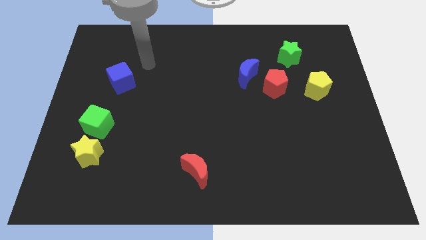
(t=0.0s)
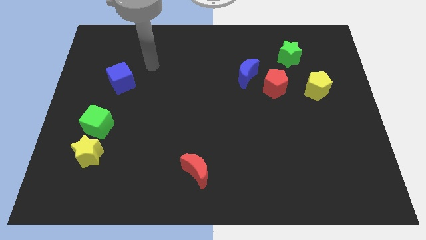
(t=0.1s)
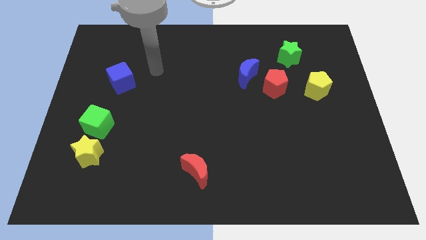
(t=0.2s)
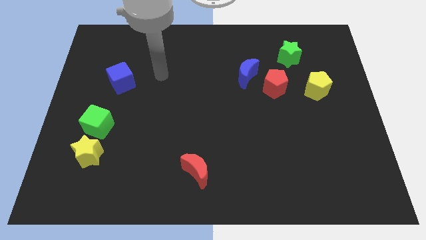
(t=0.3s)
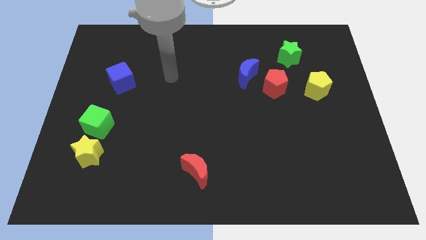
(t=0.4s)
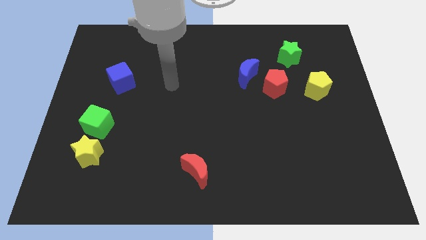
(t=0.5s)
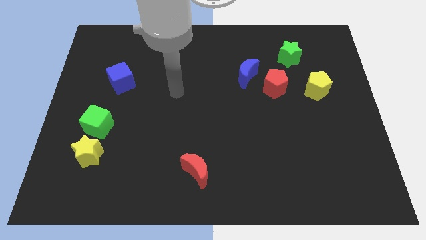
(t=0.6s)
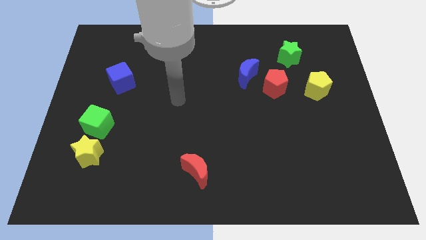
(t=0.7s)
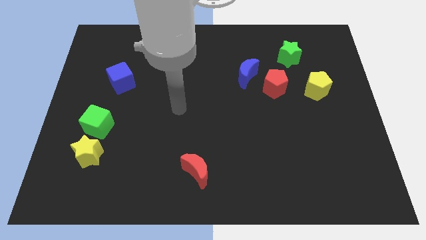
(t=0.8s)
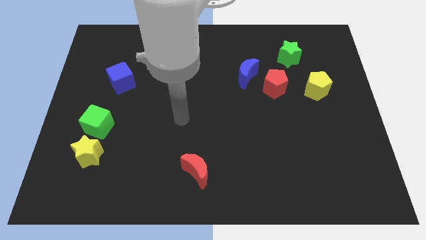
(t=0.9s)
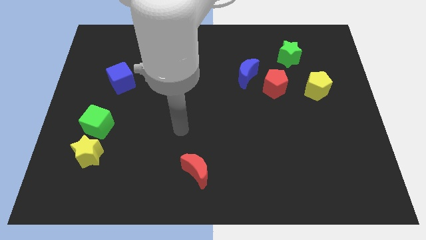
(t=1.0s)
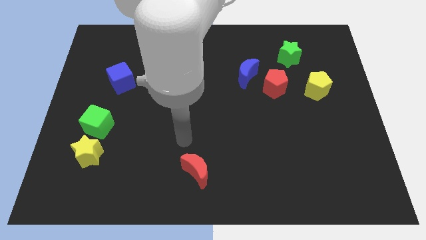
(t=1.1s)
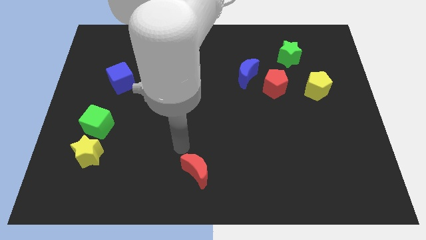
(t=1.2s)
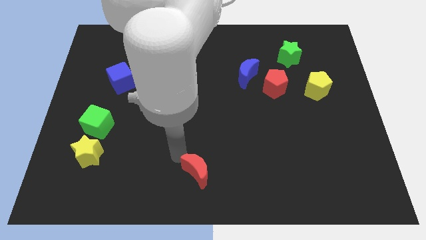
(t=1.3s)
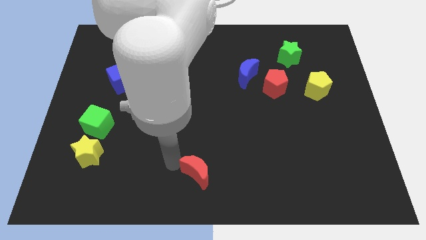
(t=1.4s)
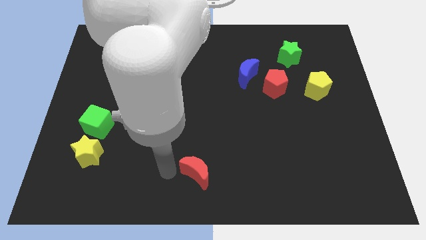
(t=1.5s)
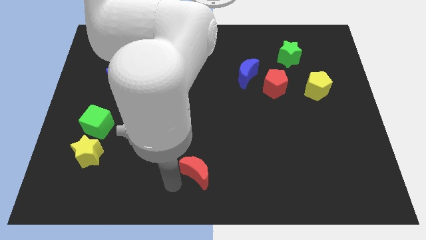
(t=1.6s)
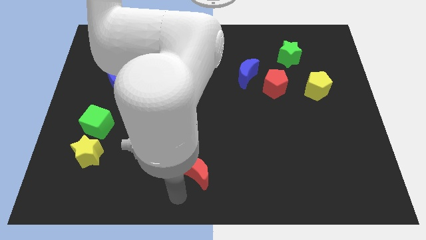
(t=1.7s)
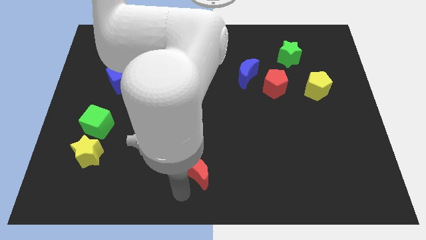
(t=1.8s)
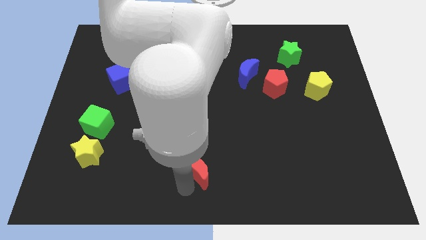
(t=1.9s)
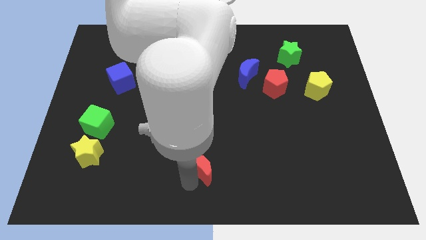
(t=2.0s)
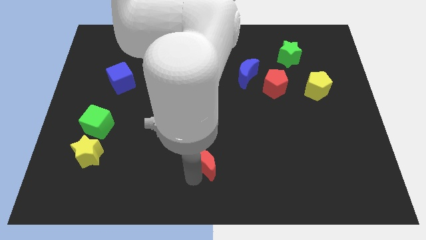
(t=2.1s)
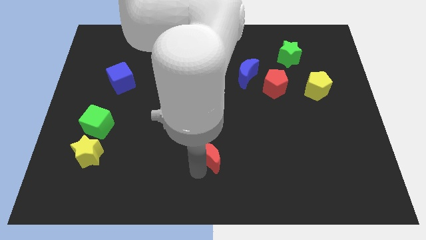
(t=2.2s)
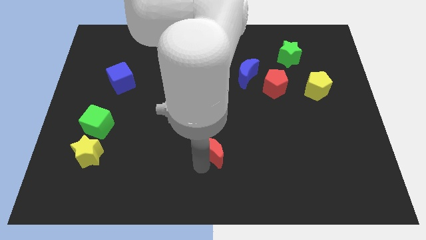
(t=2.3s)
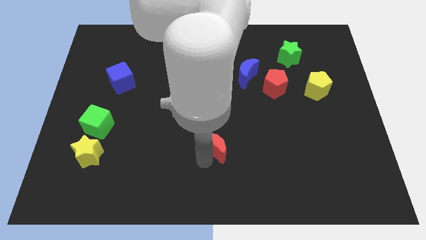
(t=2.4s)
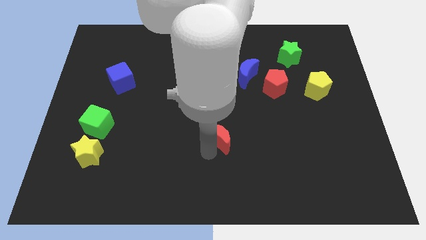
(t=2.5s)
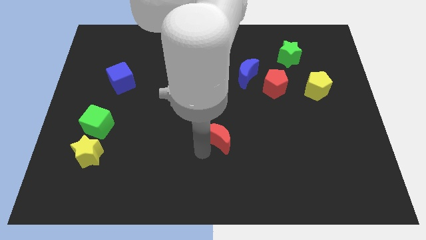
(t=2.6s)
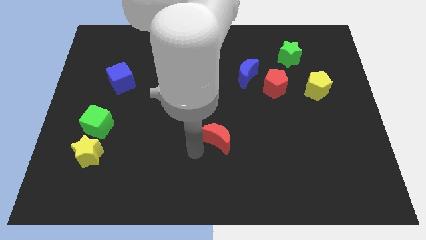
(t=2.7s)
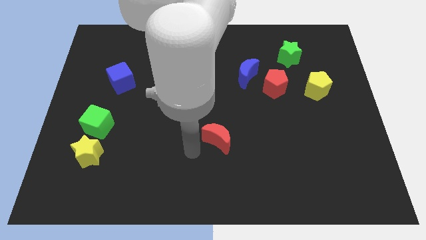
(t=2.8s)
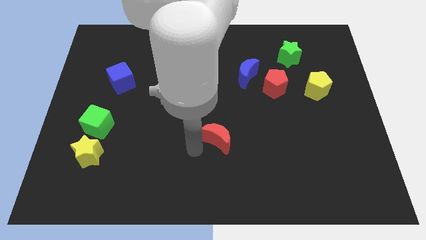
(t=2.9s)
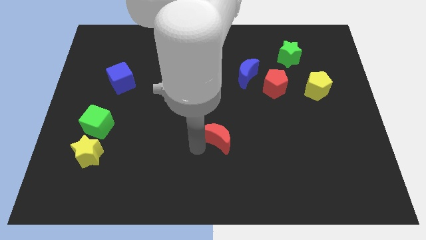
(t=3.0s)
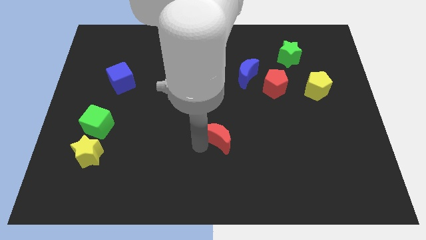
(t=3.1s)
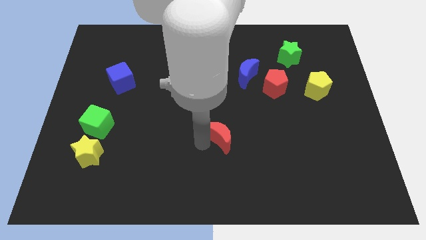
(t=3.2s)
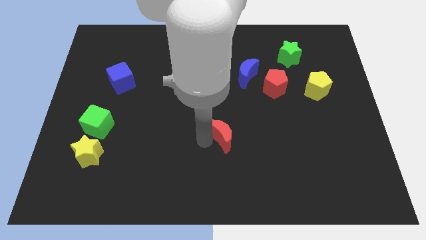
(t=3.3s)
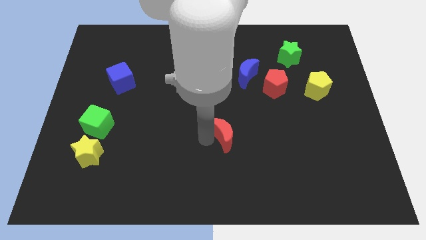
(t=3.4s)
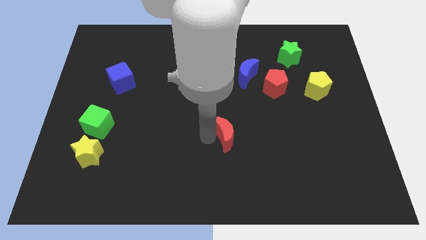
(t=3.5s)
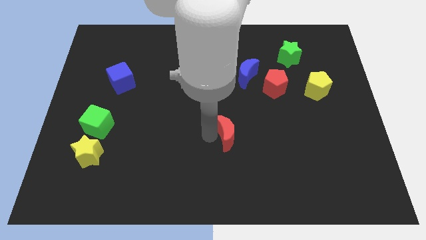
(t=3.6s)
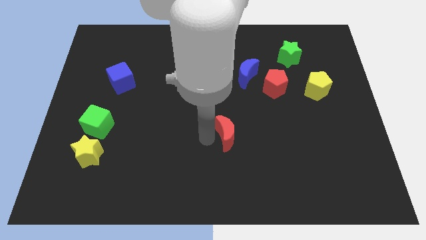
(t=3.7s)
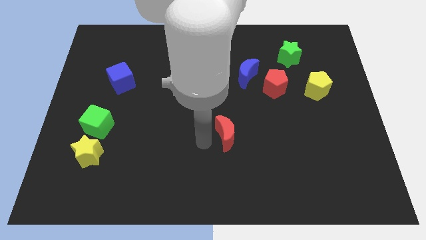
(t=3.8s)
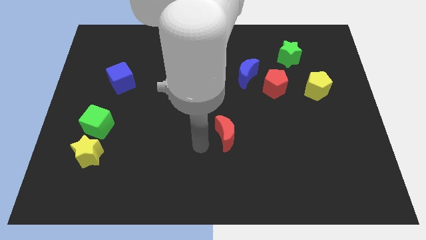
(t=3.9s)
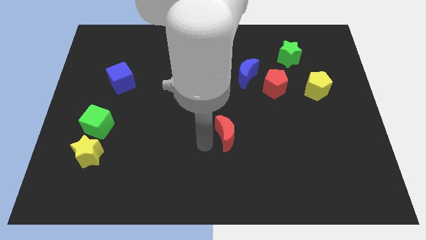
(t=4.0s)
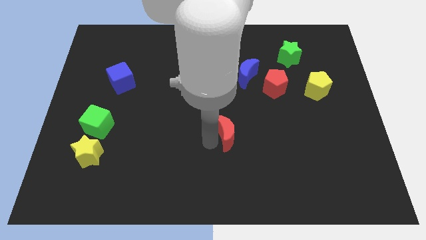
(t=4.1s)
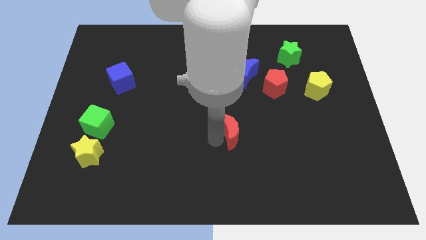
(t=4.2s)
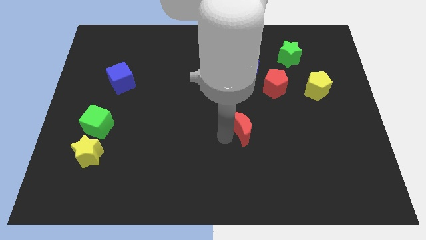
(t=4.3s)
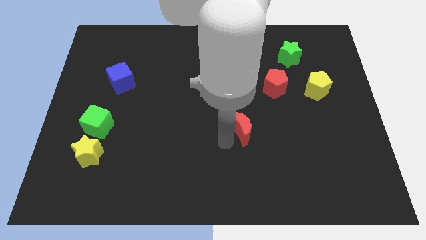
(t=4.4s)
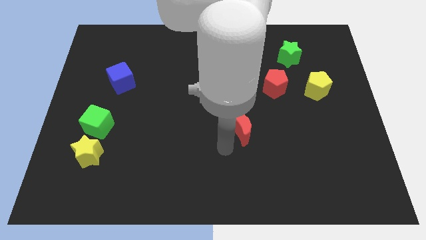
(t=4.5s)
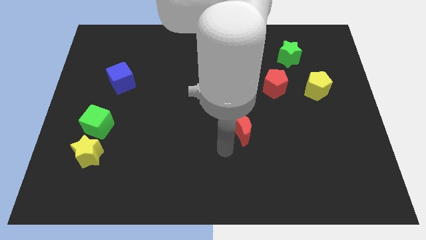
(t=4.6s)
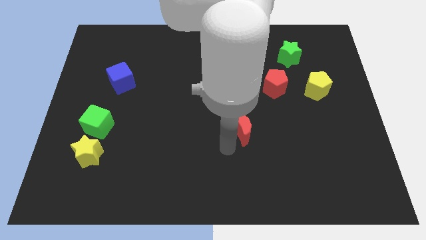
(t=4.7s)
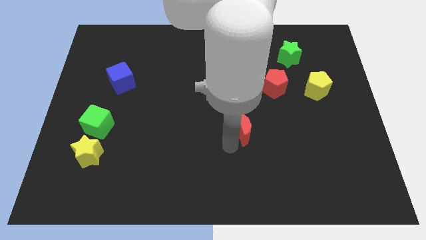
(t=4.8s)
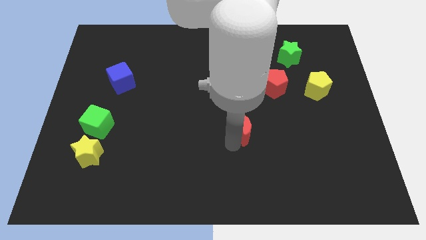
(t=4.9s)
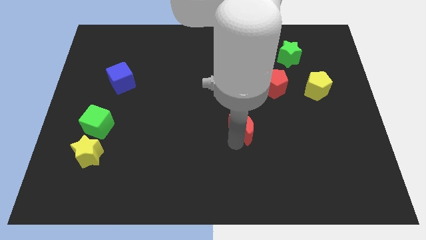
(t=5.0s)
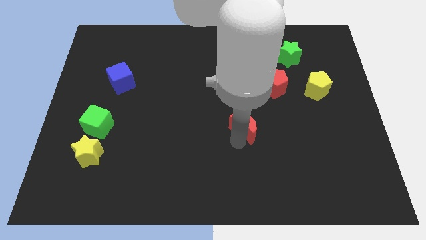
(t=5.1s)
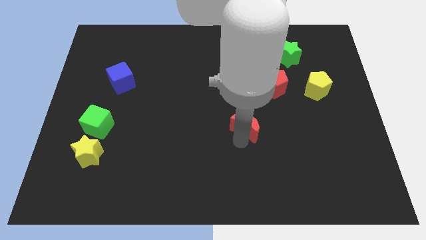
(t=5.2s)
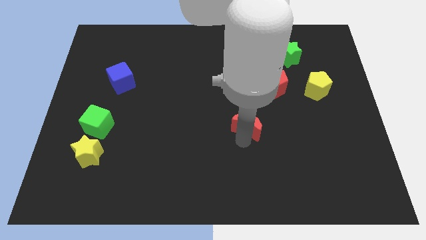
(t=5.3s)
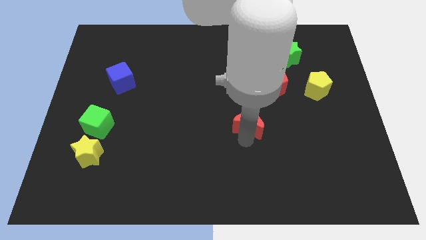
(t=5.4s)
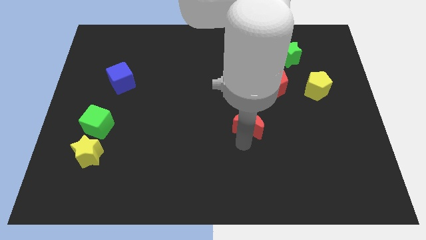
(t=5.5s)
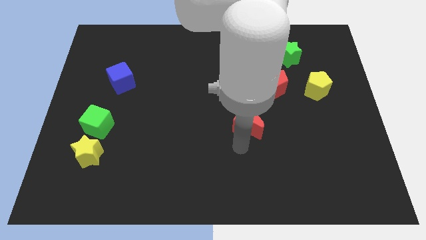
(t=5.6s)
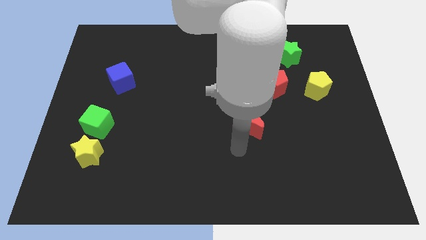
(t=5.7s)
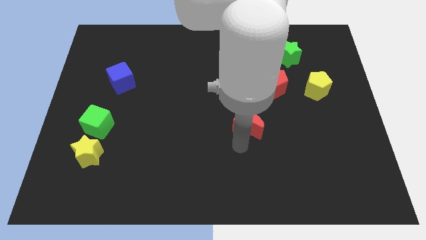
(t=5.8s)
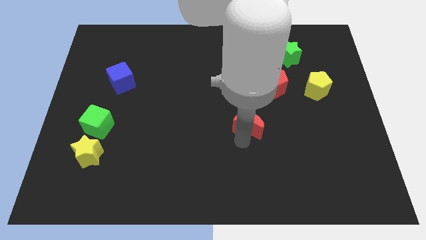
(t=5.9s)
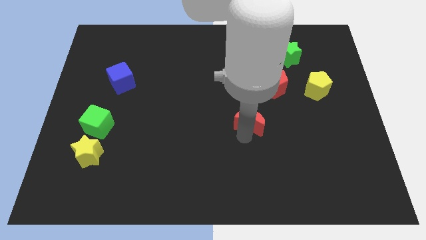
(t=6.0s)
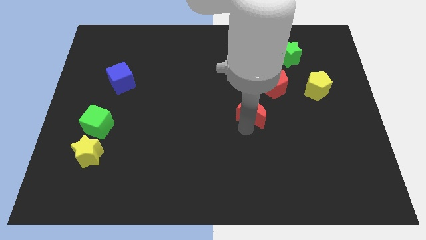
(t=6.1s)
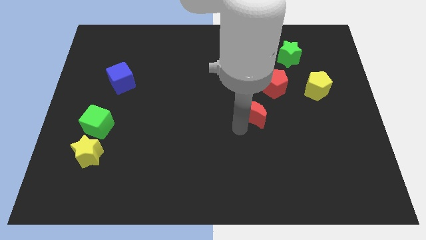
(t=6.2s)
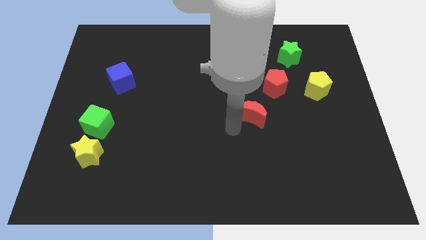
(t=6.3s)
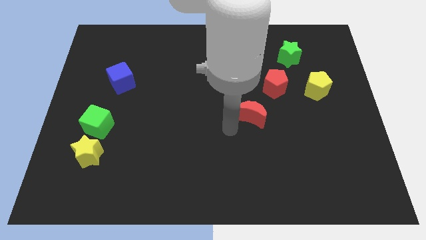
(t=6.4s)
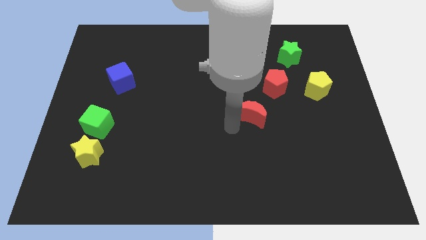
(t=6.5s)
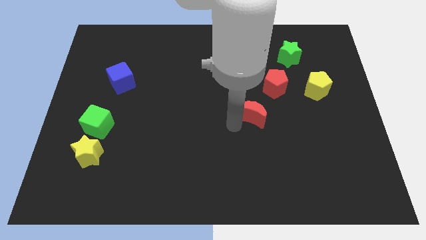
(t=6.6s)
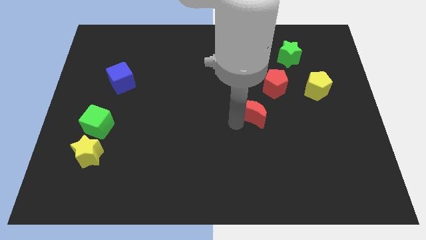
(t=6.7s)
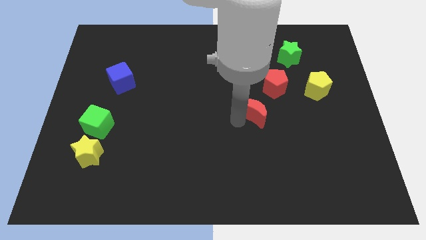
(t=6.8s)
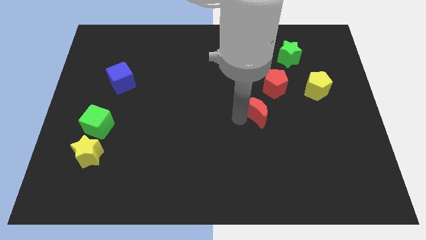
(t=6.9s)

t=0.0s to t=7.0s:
move the red moon diagonally upwards and right

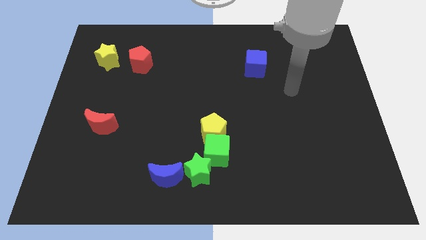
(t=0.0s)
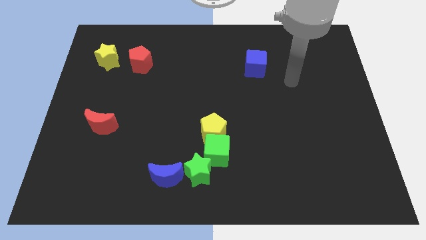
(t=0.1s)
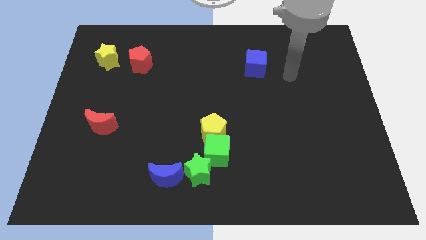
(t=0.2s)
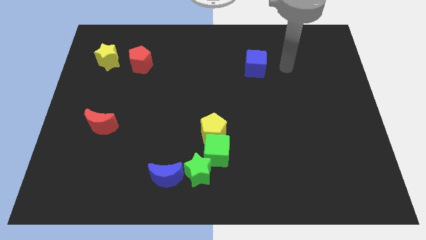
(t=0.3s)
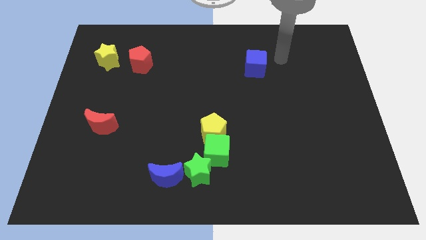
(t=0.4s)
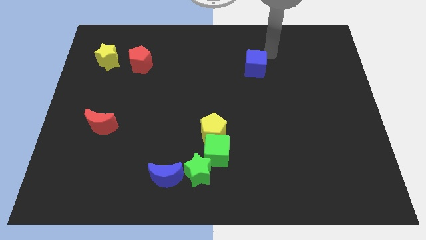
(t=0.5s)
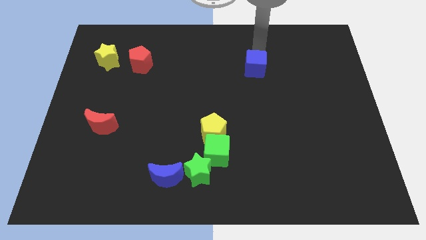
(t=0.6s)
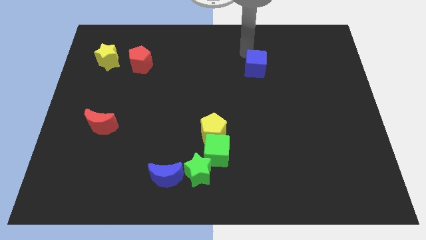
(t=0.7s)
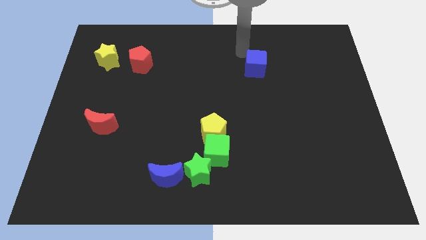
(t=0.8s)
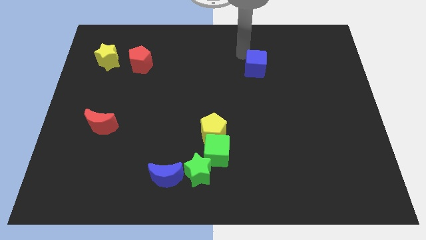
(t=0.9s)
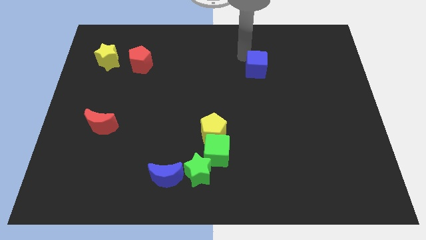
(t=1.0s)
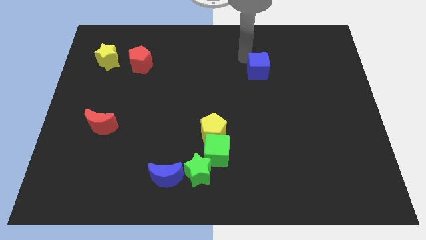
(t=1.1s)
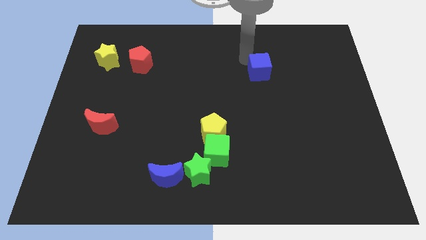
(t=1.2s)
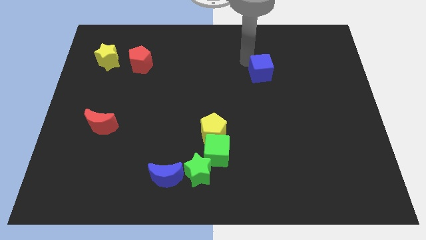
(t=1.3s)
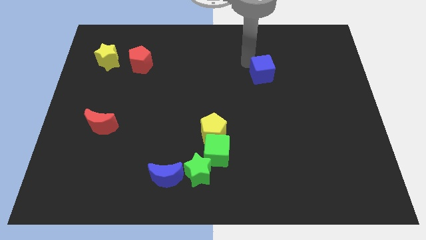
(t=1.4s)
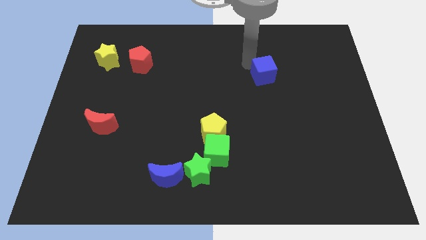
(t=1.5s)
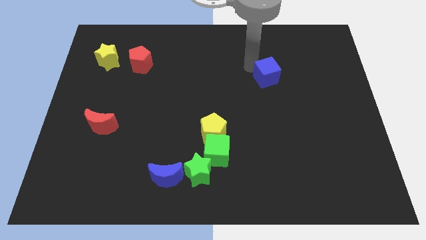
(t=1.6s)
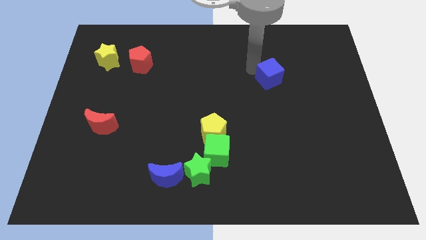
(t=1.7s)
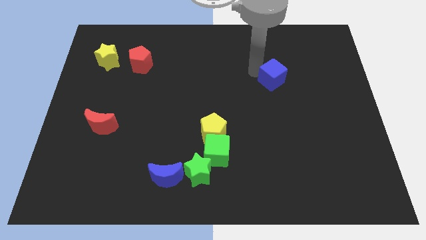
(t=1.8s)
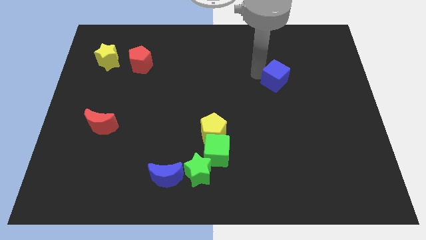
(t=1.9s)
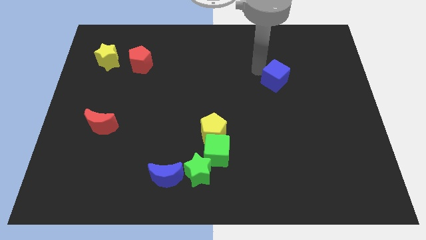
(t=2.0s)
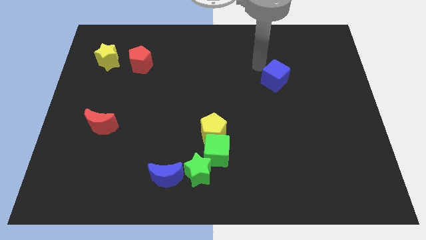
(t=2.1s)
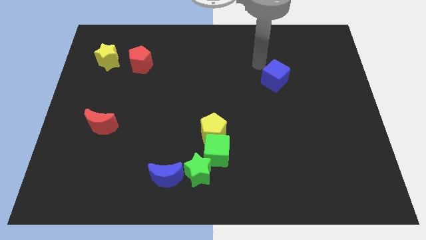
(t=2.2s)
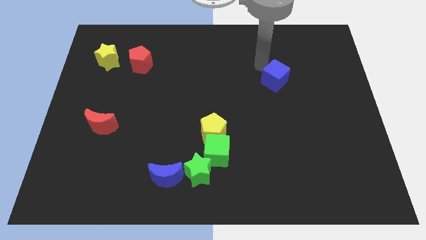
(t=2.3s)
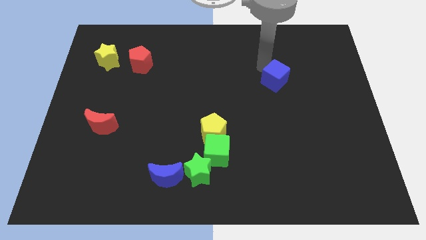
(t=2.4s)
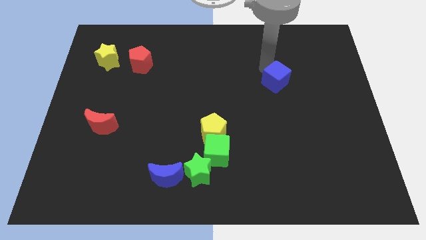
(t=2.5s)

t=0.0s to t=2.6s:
slide the blue cube somewhat down and right diagonally
